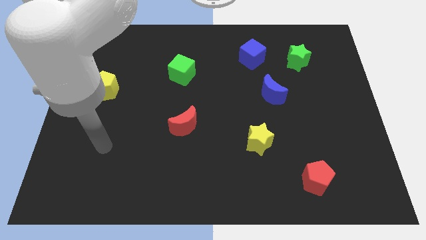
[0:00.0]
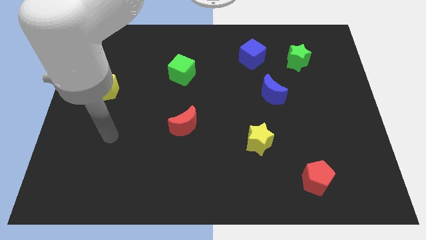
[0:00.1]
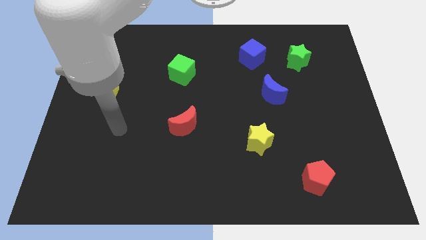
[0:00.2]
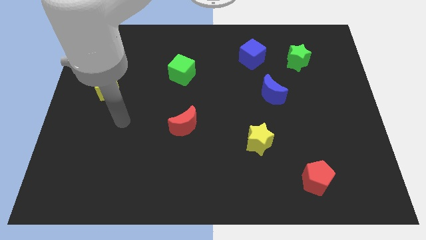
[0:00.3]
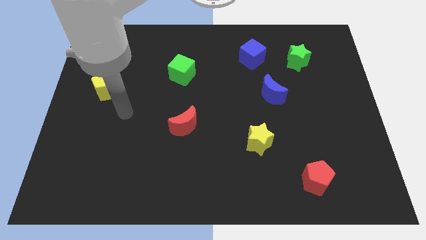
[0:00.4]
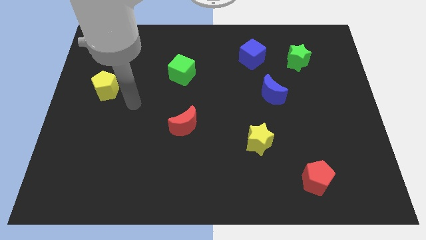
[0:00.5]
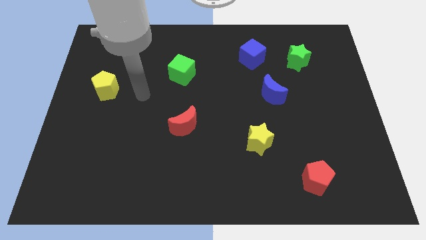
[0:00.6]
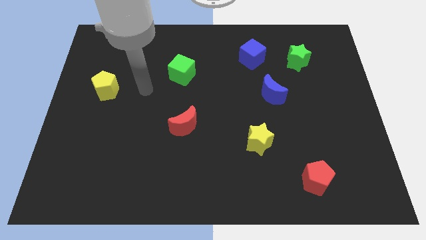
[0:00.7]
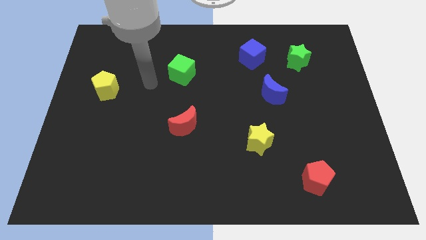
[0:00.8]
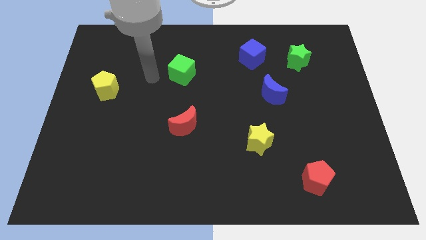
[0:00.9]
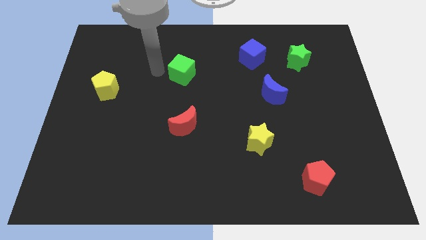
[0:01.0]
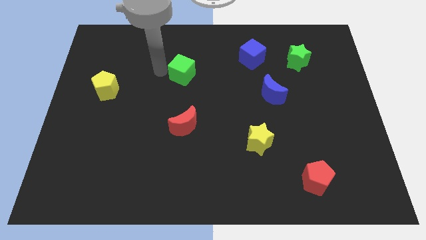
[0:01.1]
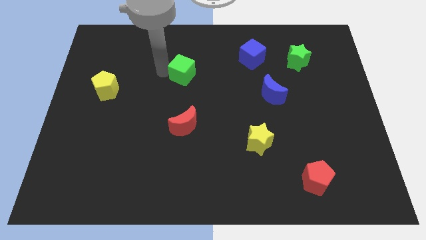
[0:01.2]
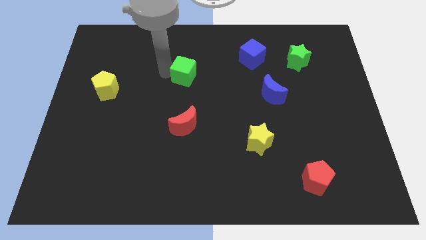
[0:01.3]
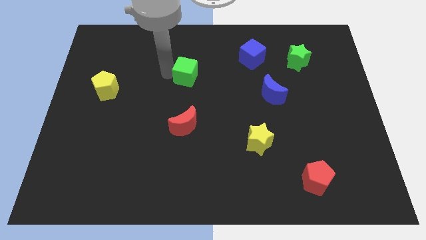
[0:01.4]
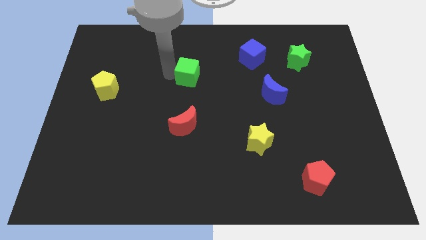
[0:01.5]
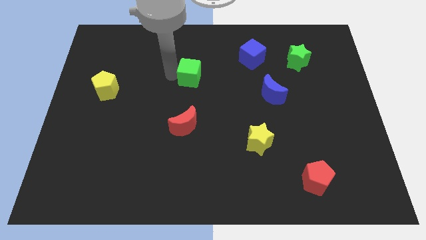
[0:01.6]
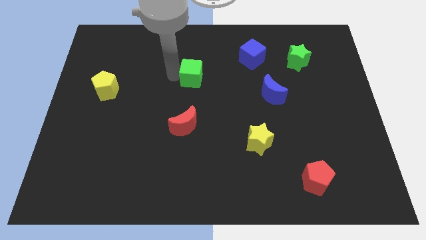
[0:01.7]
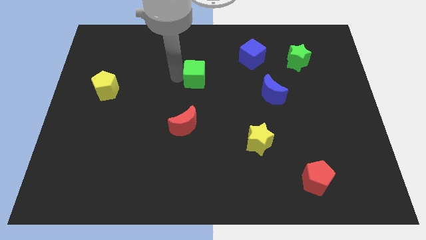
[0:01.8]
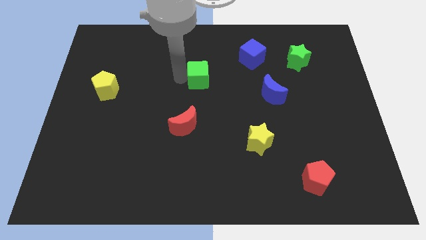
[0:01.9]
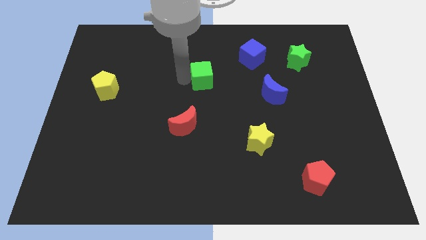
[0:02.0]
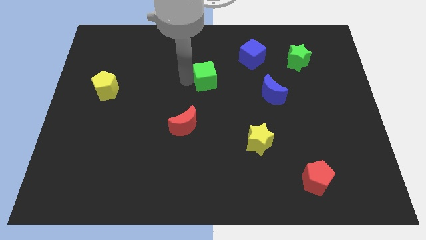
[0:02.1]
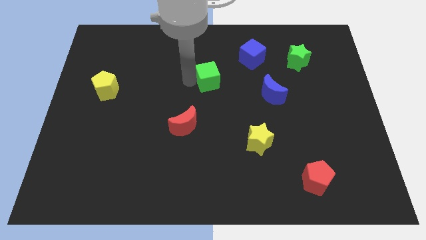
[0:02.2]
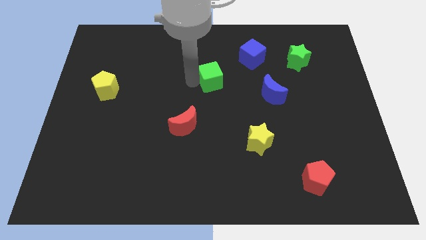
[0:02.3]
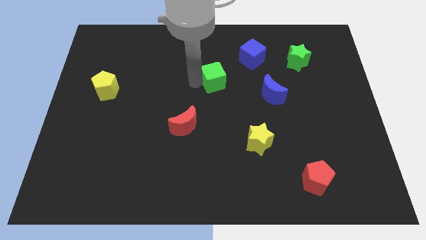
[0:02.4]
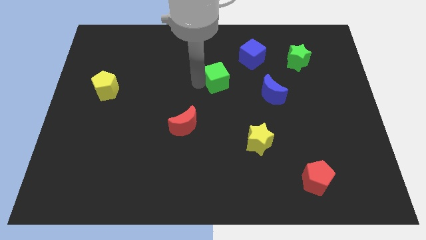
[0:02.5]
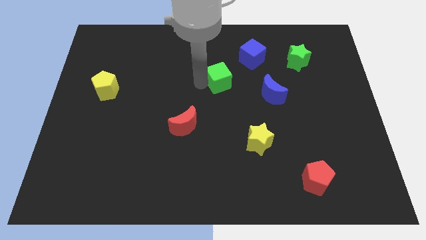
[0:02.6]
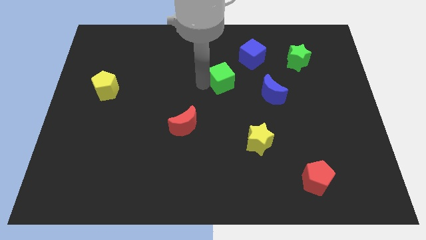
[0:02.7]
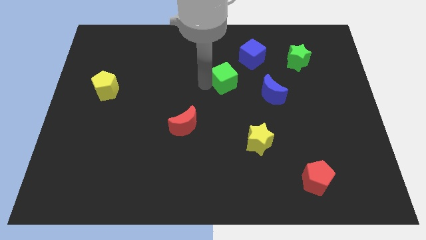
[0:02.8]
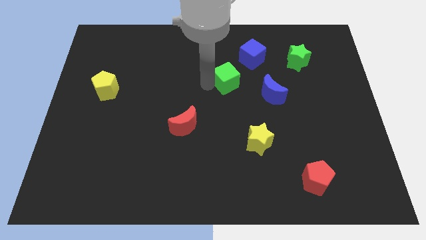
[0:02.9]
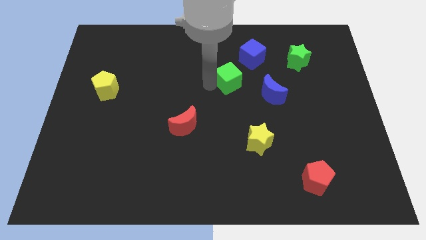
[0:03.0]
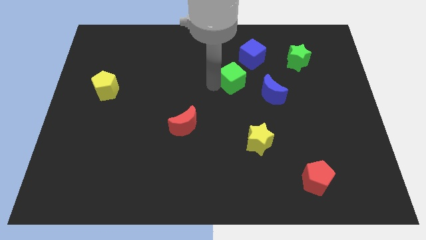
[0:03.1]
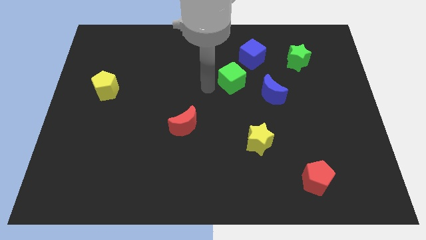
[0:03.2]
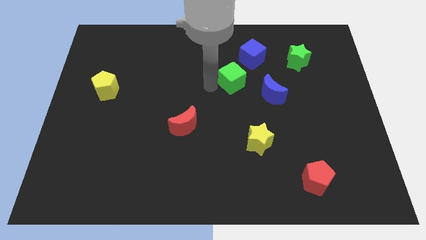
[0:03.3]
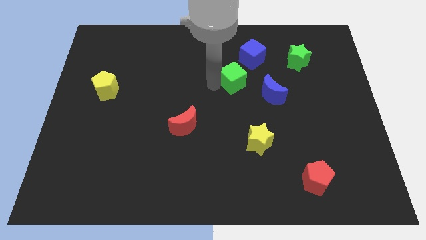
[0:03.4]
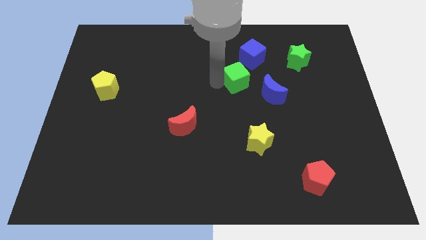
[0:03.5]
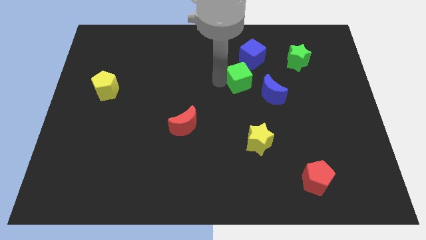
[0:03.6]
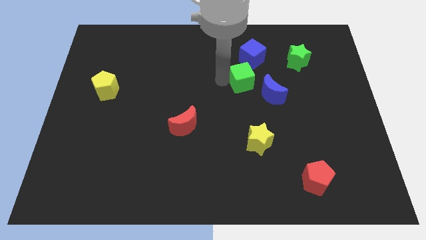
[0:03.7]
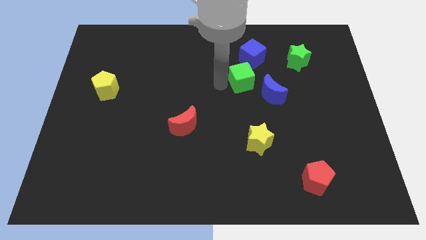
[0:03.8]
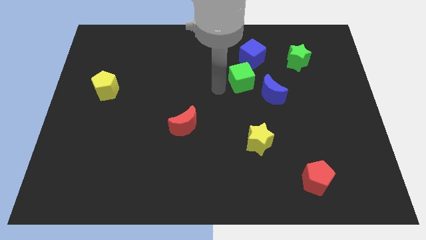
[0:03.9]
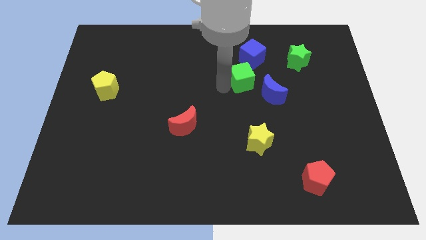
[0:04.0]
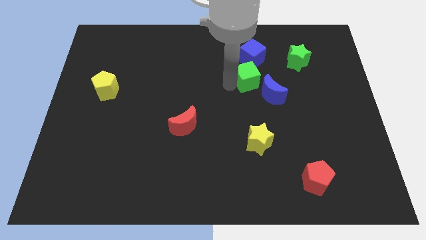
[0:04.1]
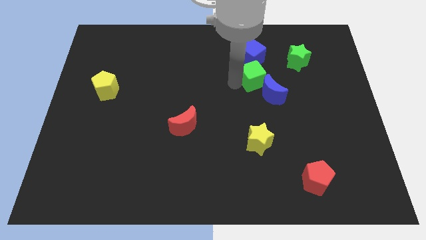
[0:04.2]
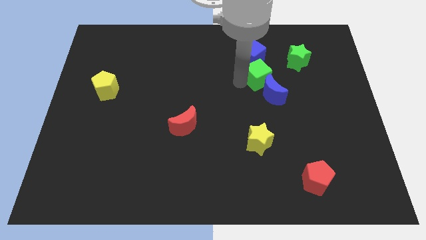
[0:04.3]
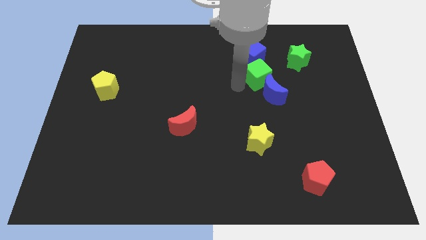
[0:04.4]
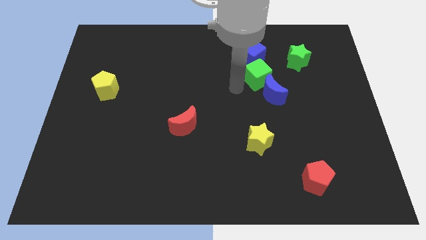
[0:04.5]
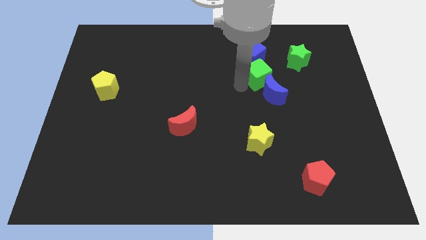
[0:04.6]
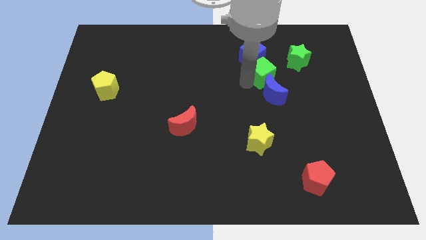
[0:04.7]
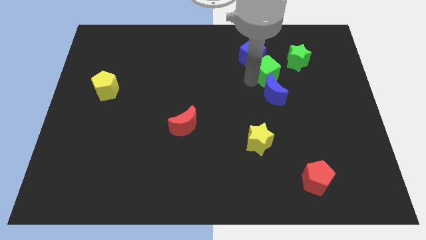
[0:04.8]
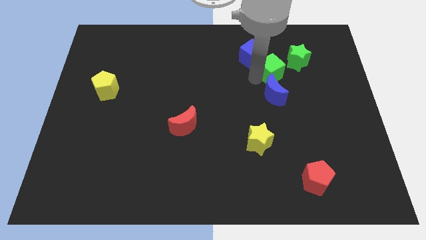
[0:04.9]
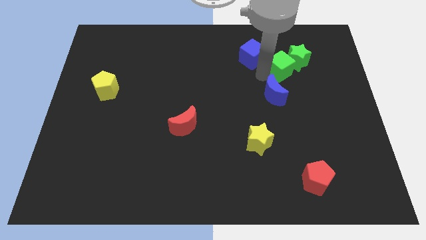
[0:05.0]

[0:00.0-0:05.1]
slide the green cube to the green star

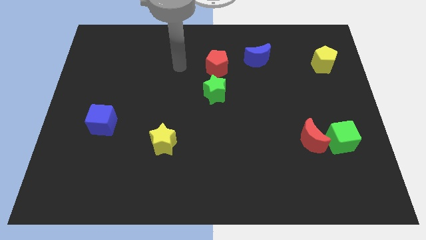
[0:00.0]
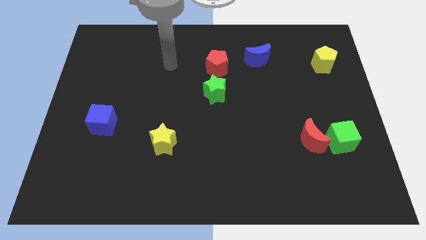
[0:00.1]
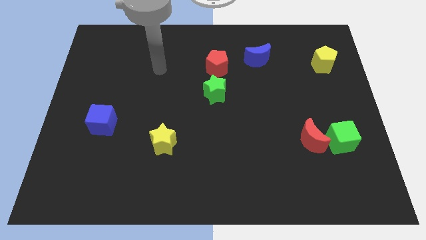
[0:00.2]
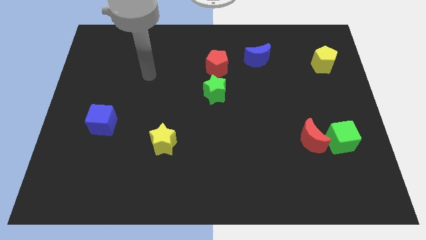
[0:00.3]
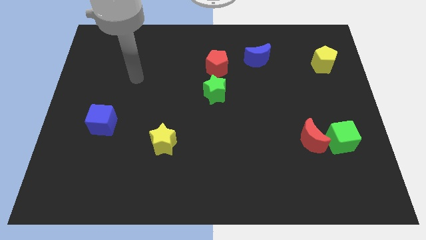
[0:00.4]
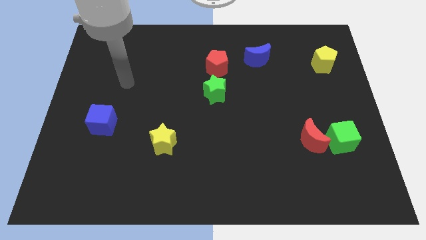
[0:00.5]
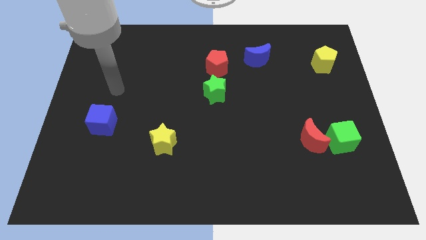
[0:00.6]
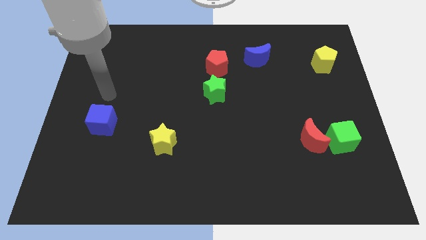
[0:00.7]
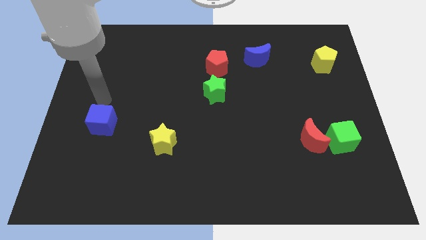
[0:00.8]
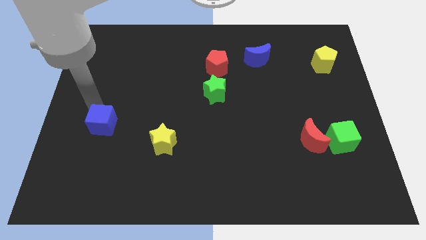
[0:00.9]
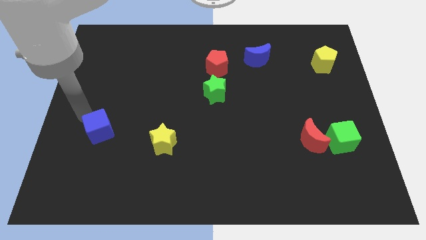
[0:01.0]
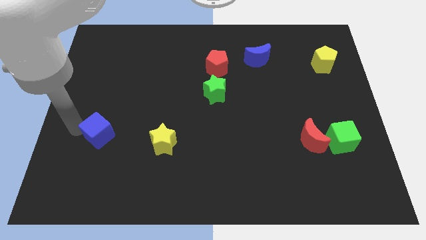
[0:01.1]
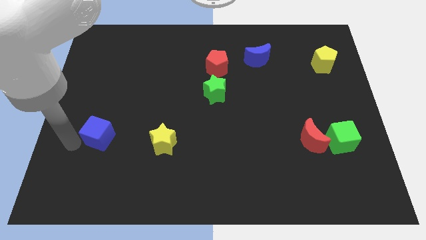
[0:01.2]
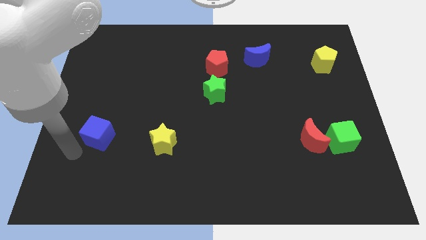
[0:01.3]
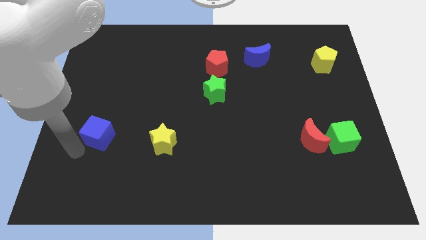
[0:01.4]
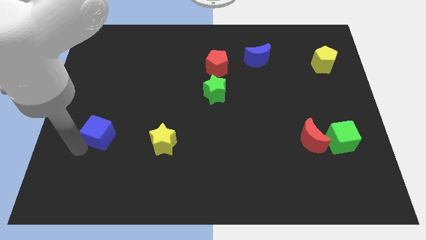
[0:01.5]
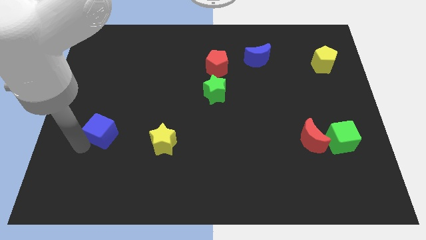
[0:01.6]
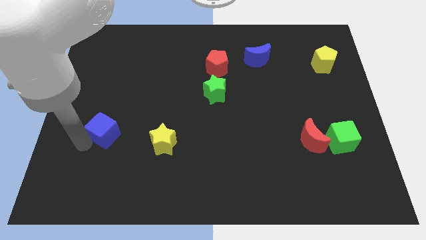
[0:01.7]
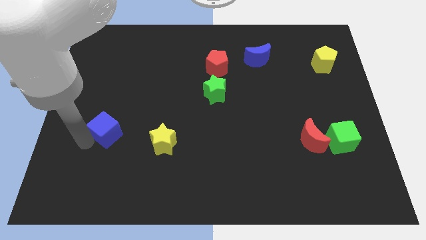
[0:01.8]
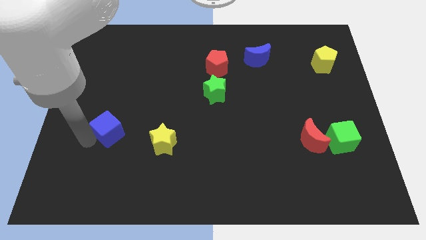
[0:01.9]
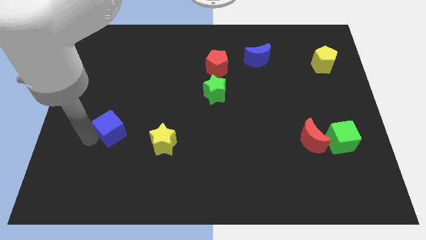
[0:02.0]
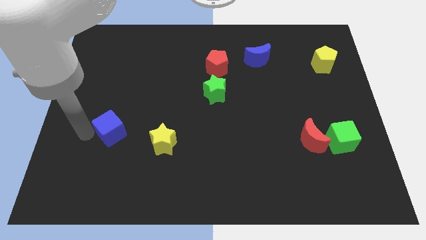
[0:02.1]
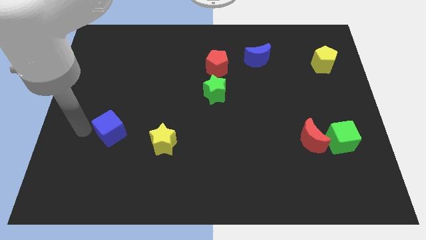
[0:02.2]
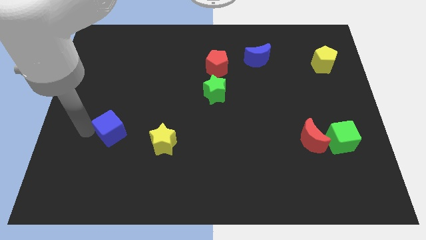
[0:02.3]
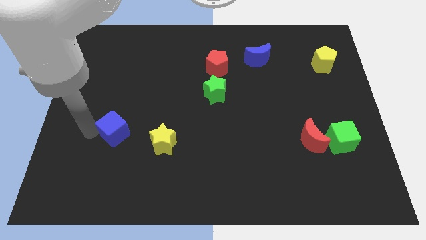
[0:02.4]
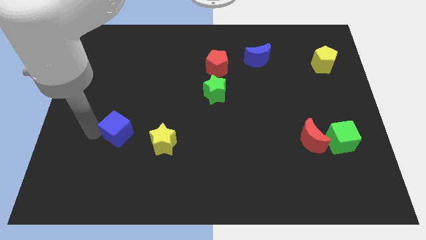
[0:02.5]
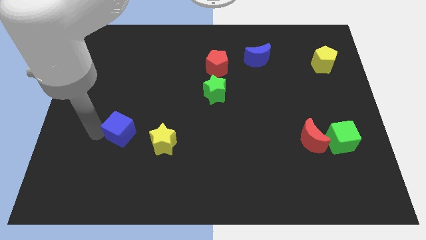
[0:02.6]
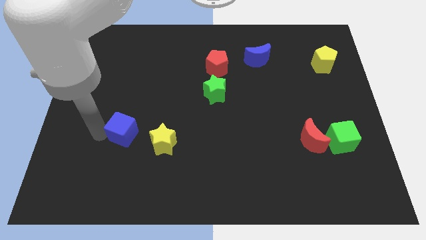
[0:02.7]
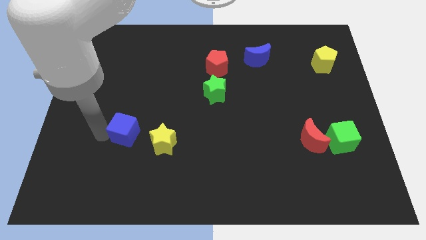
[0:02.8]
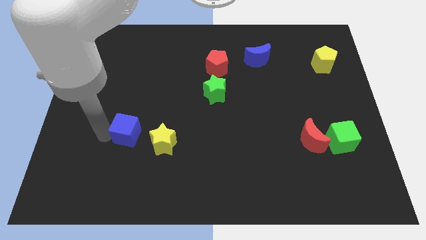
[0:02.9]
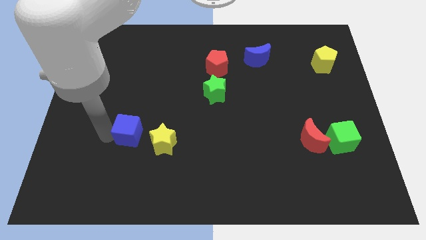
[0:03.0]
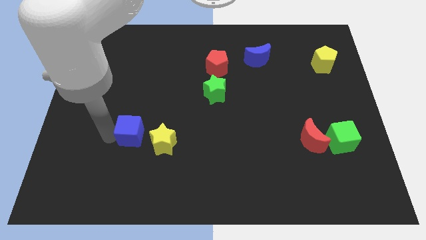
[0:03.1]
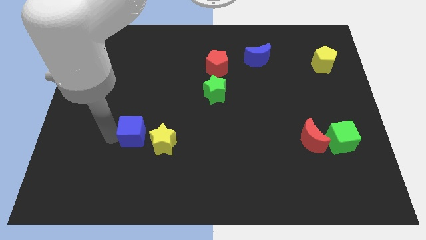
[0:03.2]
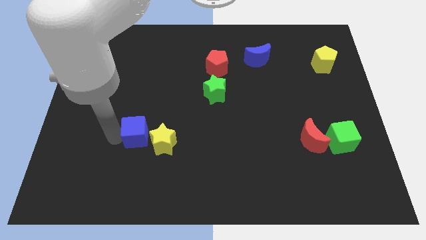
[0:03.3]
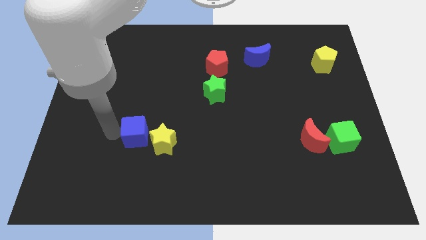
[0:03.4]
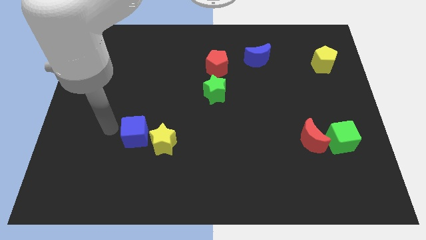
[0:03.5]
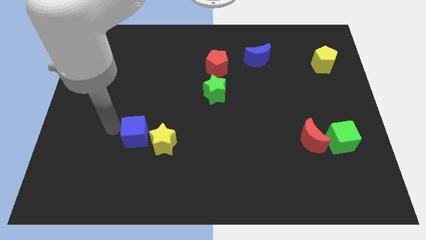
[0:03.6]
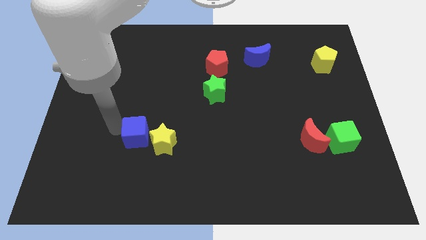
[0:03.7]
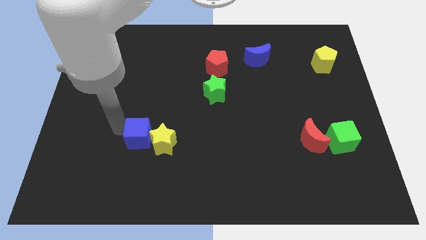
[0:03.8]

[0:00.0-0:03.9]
put the blue cube to the yellow star
